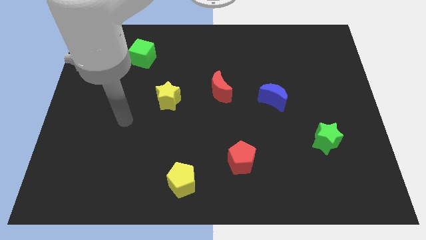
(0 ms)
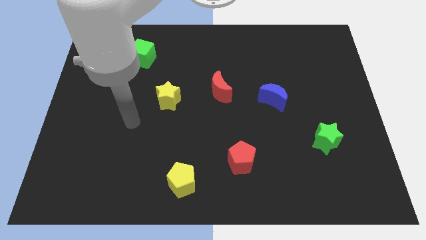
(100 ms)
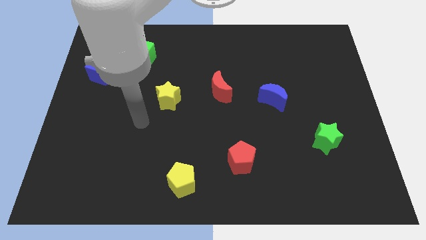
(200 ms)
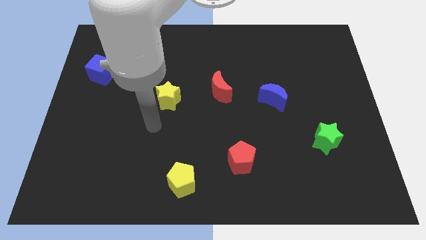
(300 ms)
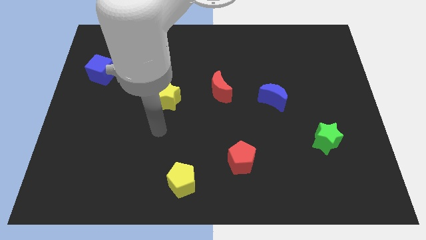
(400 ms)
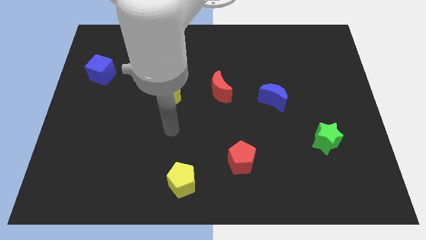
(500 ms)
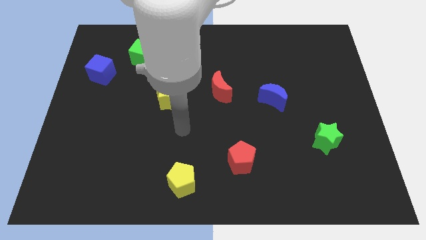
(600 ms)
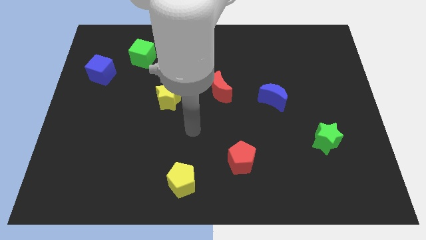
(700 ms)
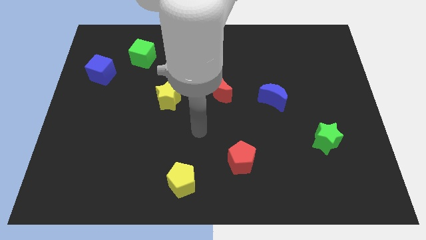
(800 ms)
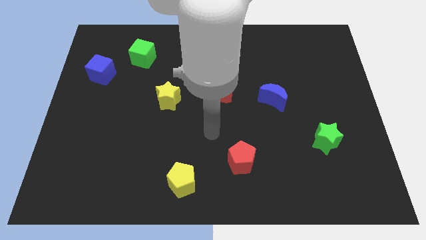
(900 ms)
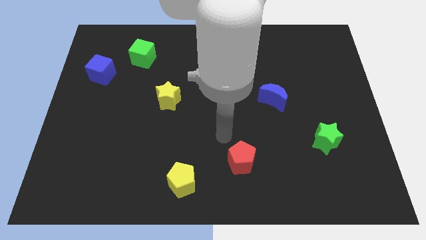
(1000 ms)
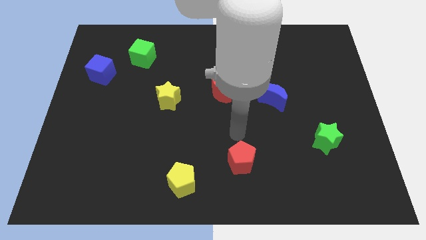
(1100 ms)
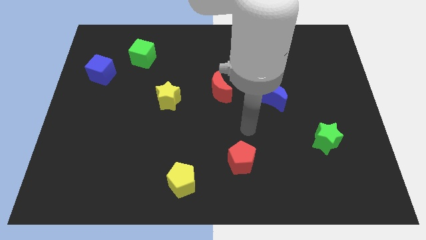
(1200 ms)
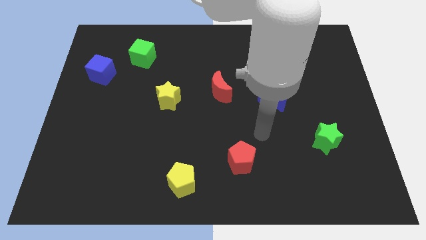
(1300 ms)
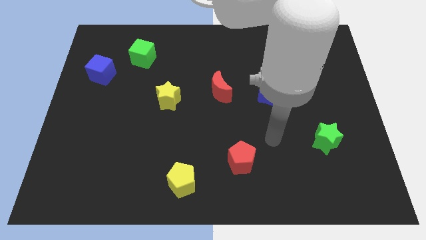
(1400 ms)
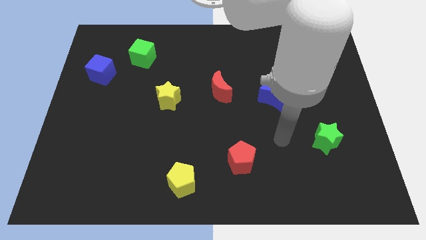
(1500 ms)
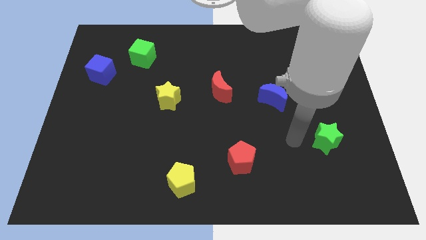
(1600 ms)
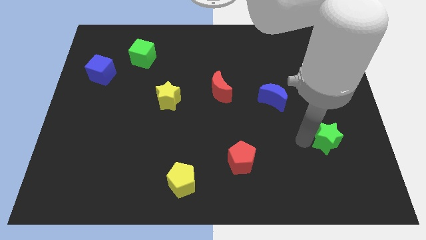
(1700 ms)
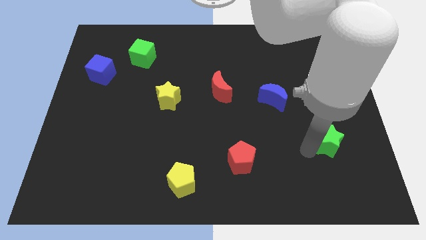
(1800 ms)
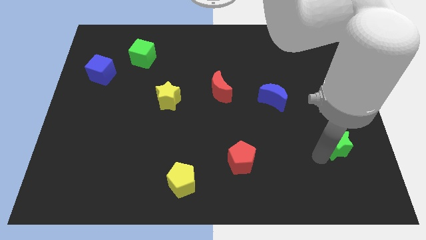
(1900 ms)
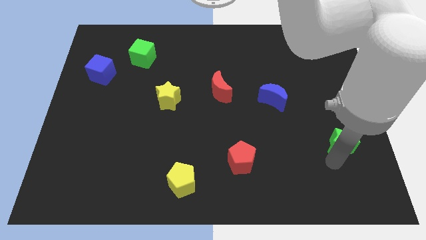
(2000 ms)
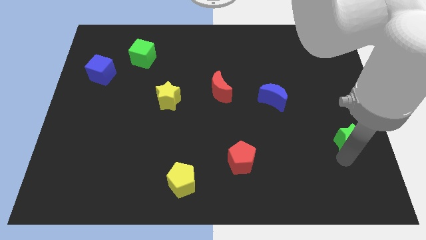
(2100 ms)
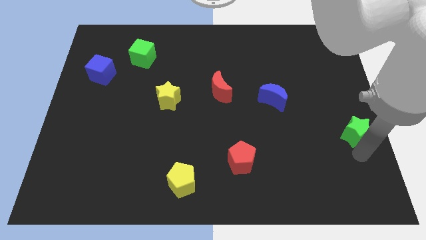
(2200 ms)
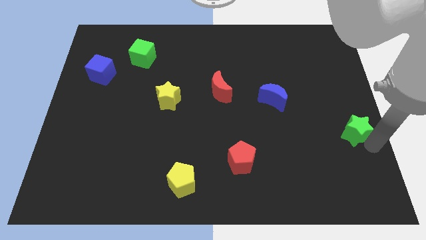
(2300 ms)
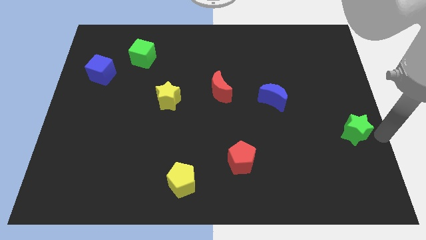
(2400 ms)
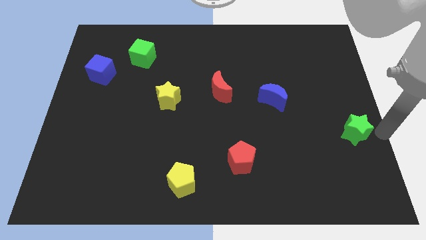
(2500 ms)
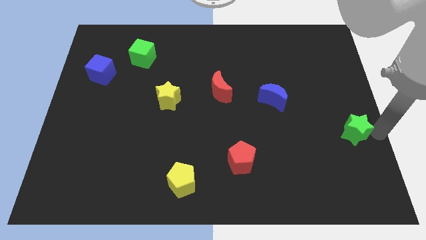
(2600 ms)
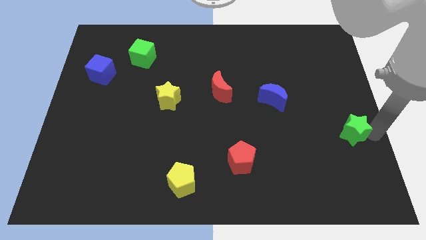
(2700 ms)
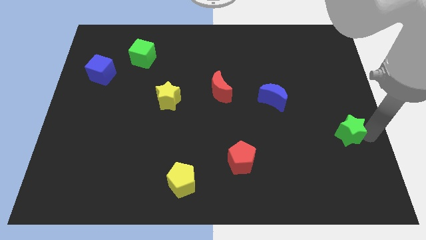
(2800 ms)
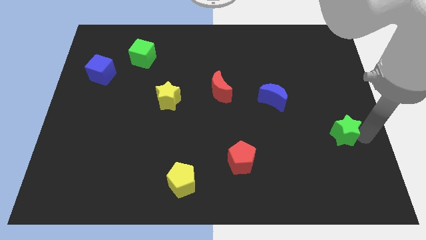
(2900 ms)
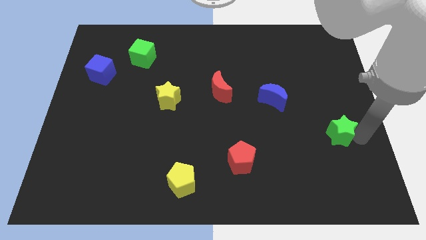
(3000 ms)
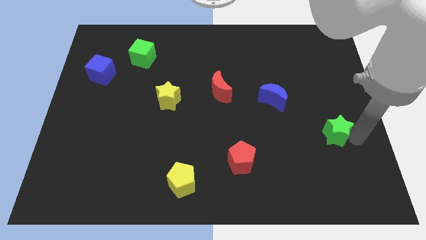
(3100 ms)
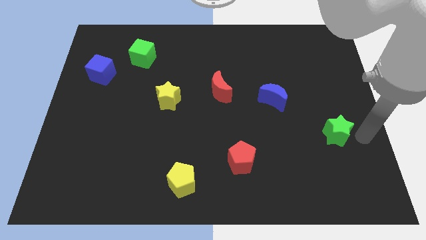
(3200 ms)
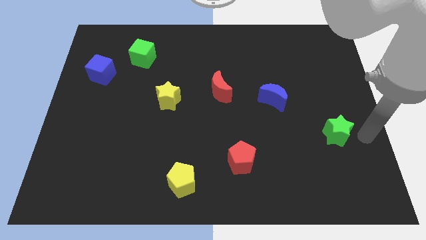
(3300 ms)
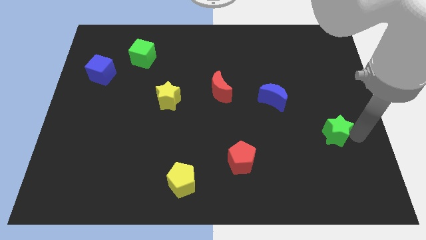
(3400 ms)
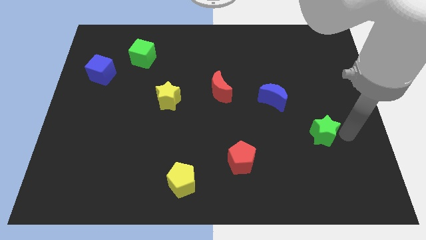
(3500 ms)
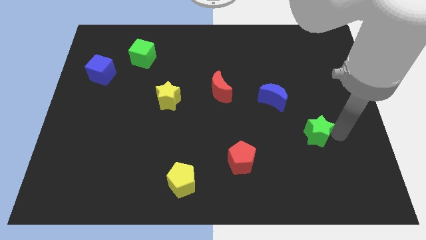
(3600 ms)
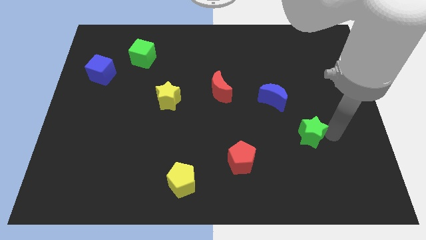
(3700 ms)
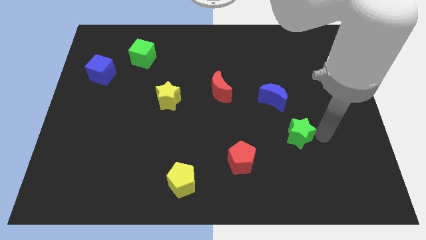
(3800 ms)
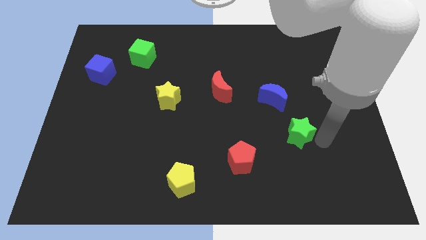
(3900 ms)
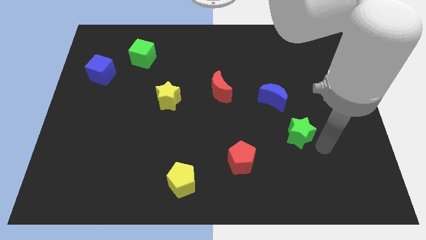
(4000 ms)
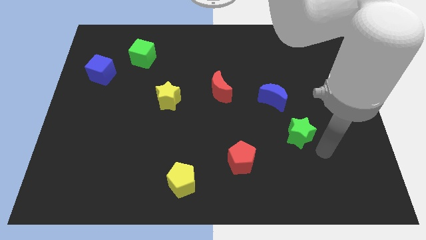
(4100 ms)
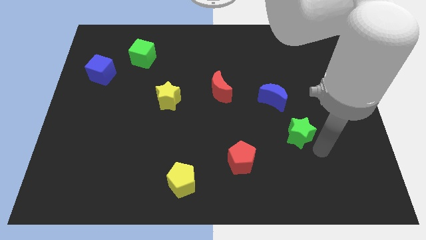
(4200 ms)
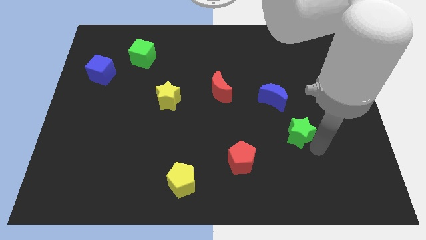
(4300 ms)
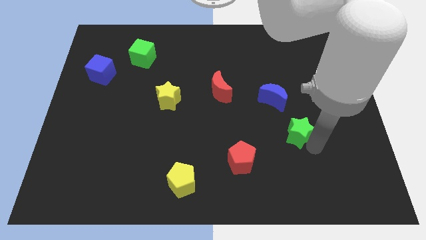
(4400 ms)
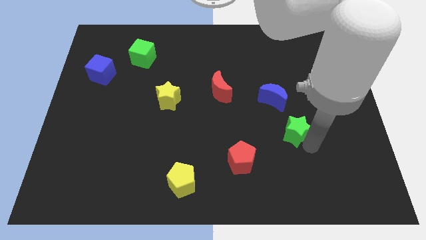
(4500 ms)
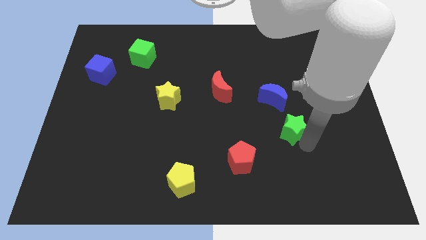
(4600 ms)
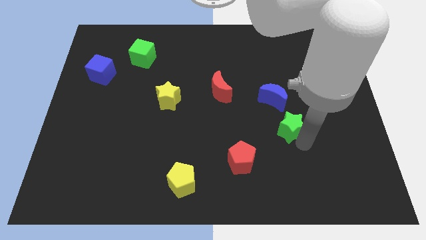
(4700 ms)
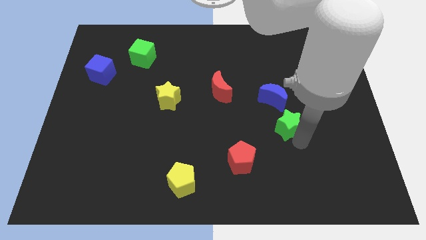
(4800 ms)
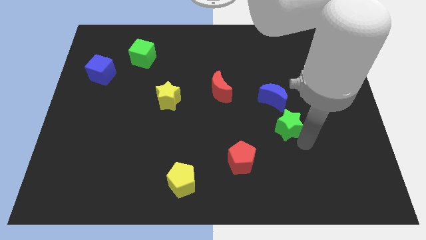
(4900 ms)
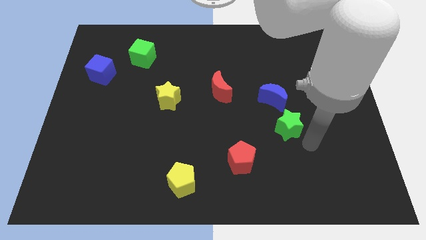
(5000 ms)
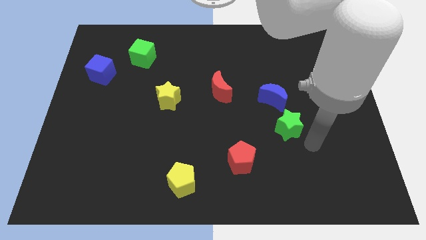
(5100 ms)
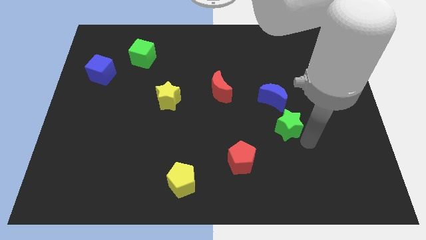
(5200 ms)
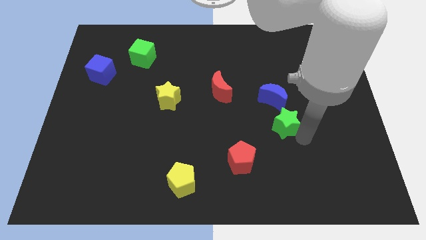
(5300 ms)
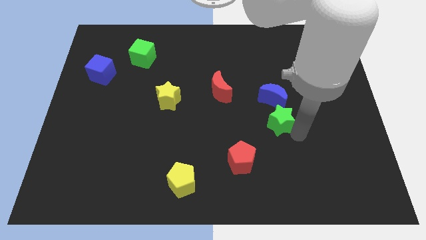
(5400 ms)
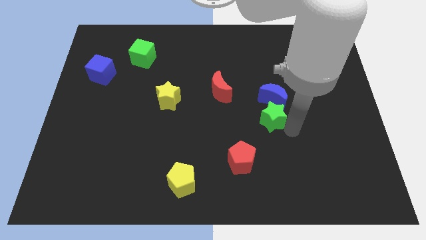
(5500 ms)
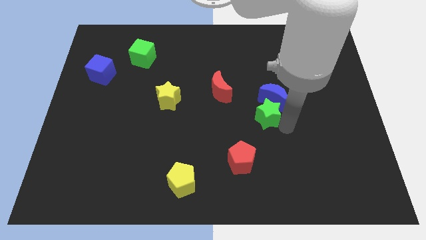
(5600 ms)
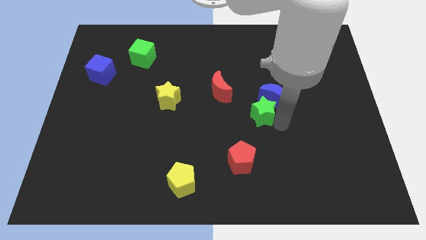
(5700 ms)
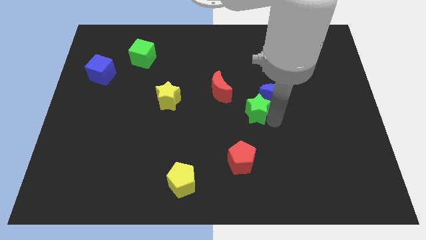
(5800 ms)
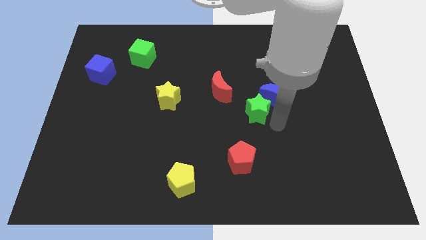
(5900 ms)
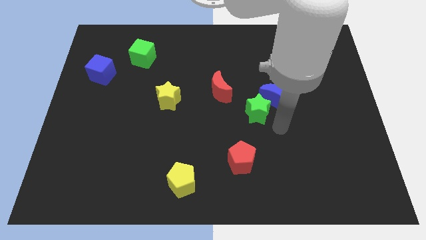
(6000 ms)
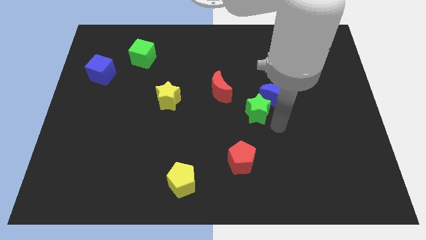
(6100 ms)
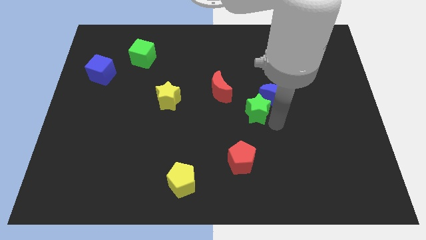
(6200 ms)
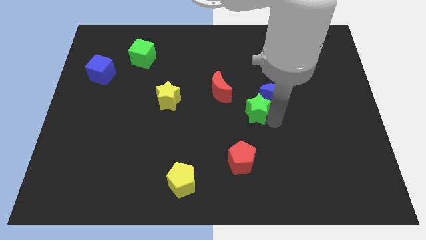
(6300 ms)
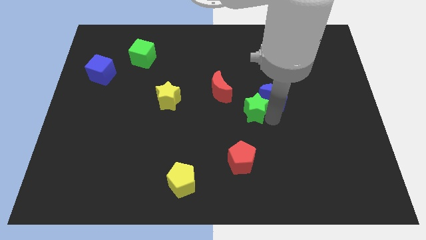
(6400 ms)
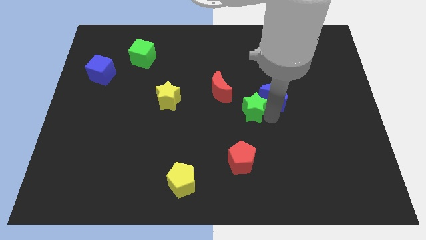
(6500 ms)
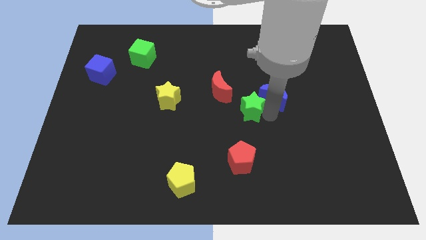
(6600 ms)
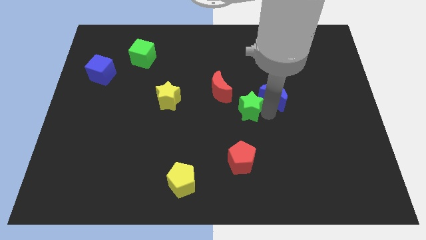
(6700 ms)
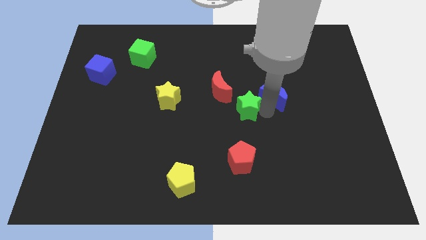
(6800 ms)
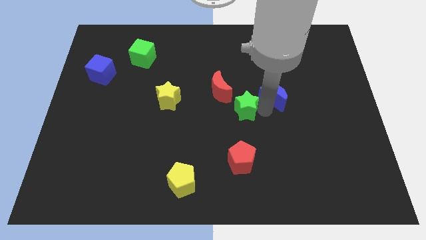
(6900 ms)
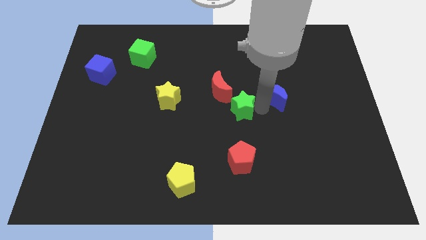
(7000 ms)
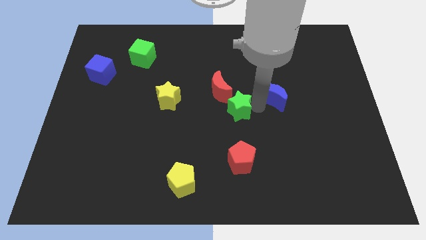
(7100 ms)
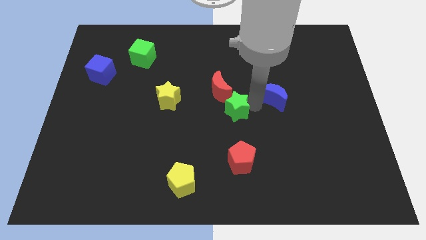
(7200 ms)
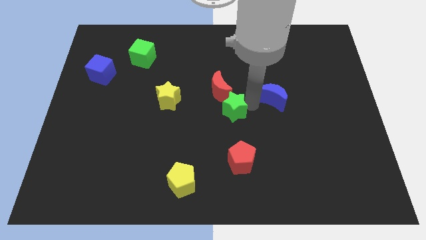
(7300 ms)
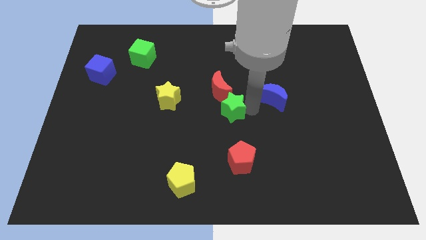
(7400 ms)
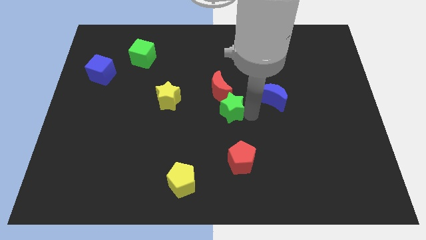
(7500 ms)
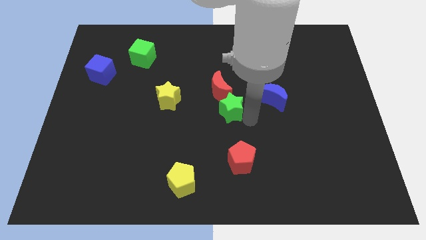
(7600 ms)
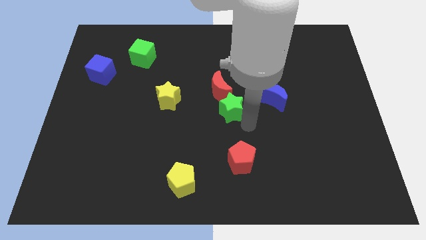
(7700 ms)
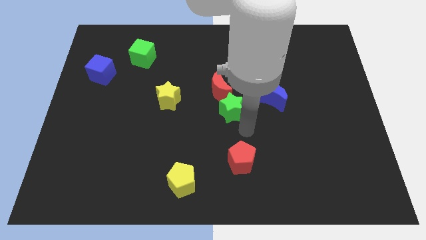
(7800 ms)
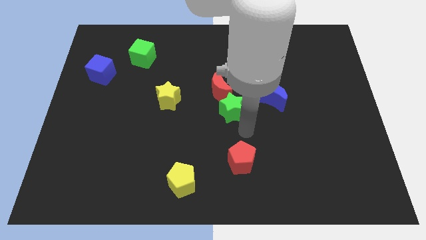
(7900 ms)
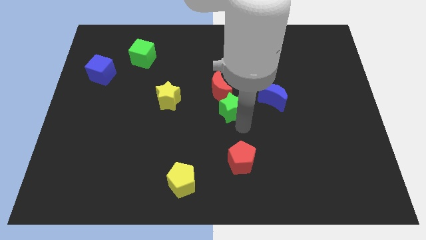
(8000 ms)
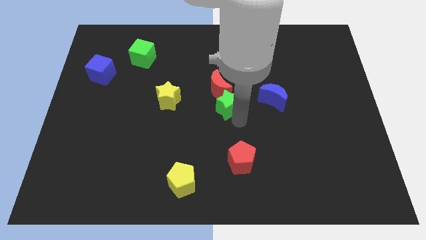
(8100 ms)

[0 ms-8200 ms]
slide the green star next to the red moon
